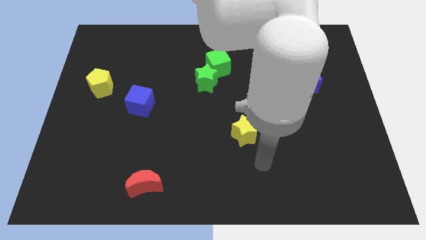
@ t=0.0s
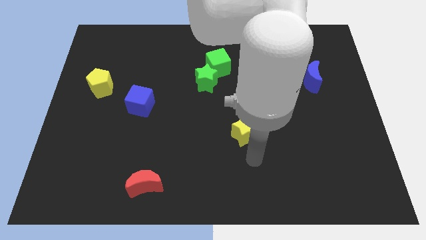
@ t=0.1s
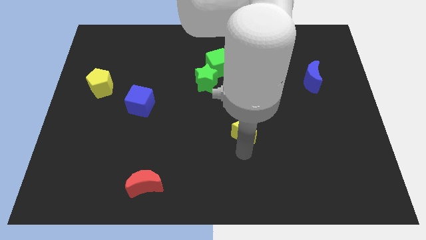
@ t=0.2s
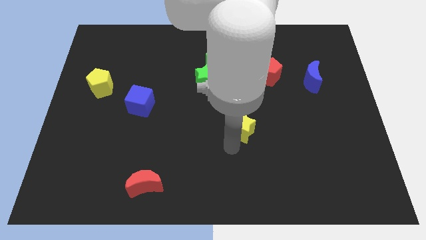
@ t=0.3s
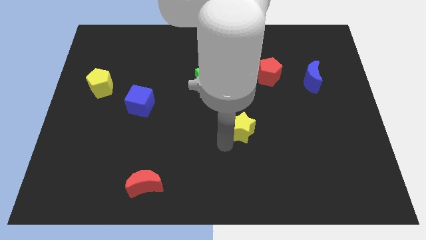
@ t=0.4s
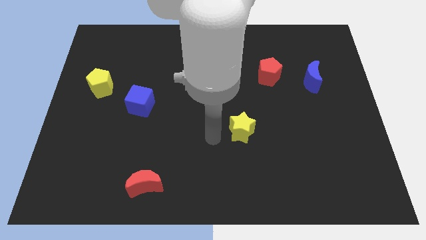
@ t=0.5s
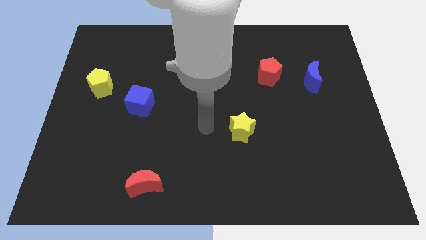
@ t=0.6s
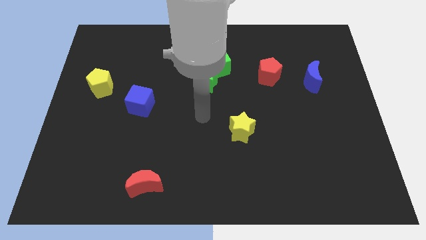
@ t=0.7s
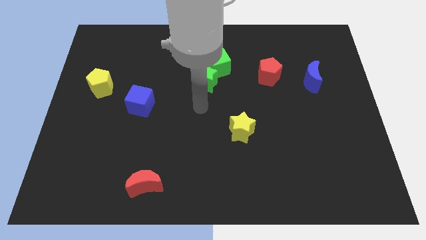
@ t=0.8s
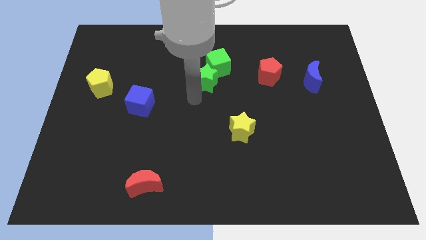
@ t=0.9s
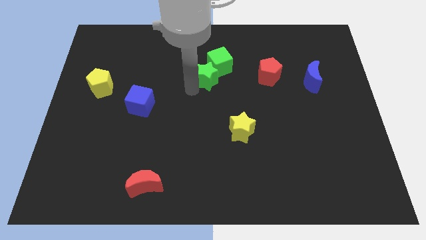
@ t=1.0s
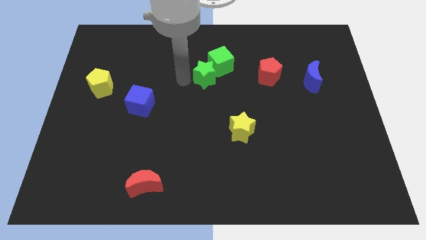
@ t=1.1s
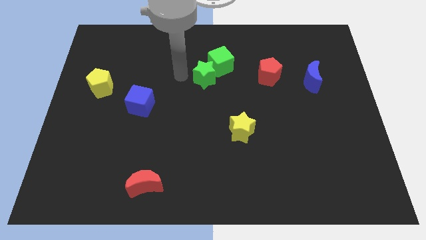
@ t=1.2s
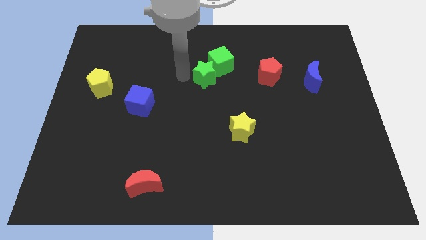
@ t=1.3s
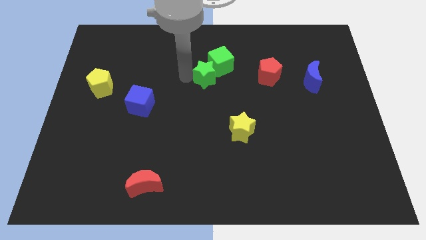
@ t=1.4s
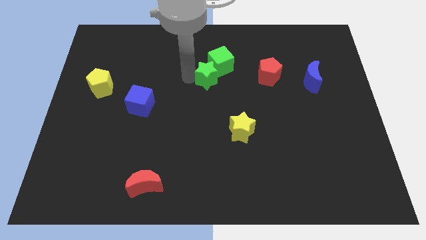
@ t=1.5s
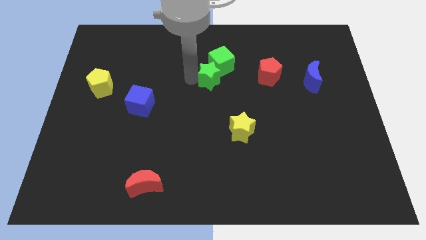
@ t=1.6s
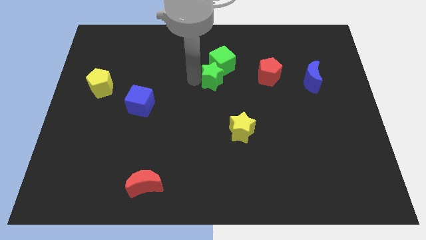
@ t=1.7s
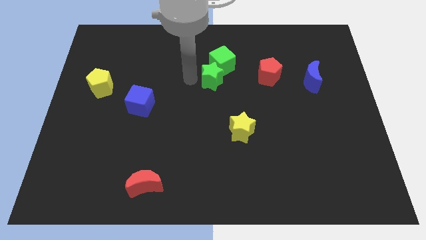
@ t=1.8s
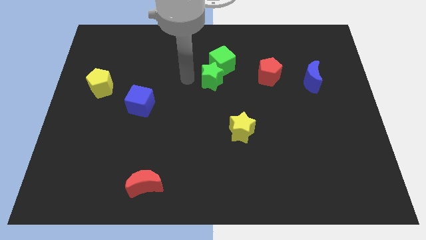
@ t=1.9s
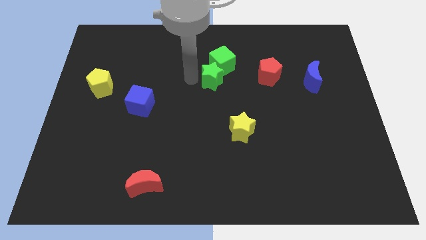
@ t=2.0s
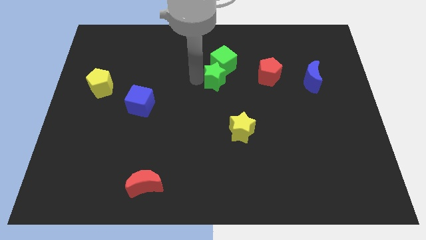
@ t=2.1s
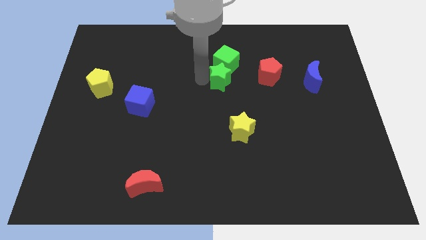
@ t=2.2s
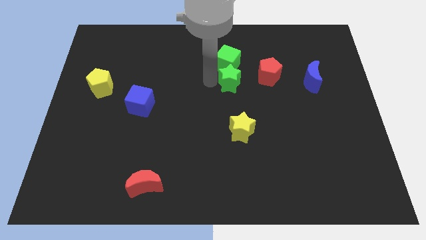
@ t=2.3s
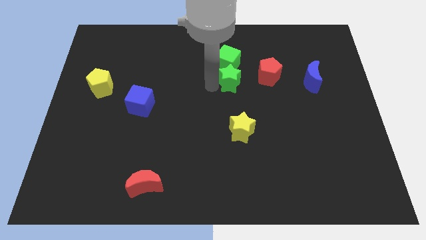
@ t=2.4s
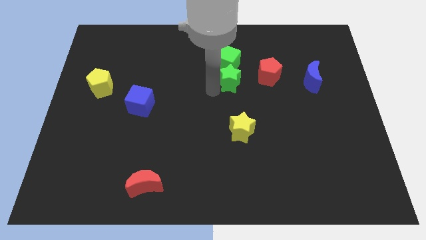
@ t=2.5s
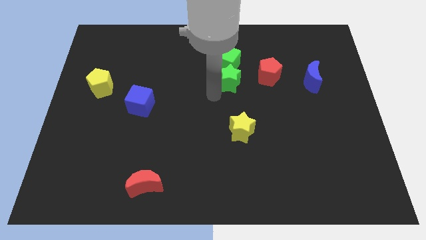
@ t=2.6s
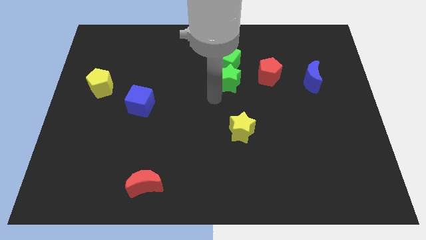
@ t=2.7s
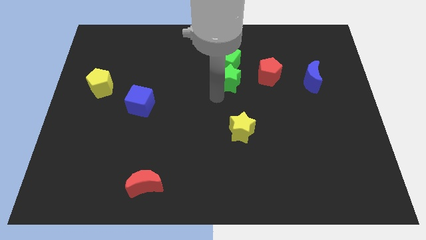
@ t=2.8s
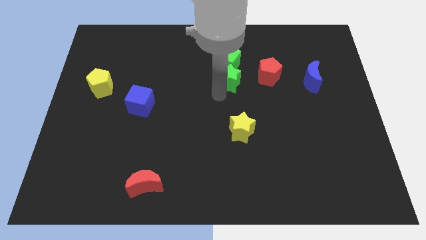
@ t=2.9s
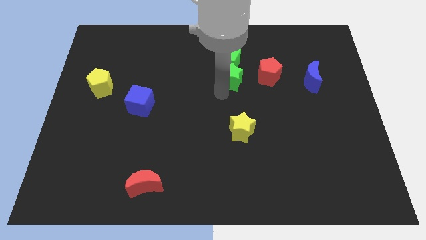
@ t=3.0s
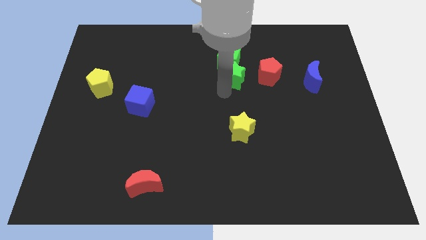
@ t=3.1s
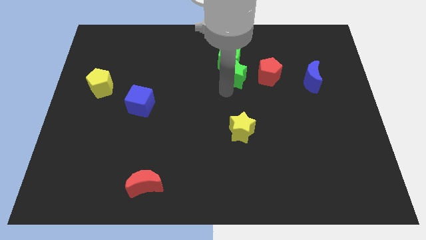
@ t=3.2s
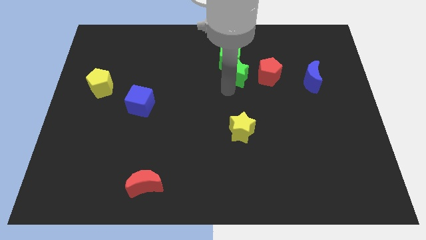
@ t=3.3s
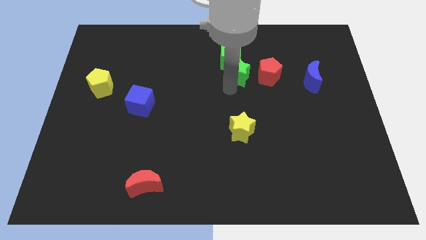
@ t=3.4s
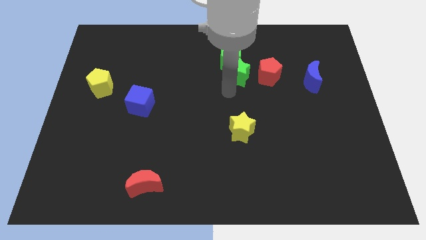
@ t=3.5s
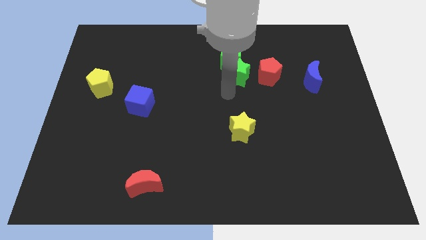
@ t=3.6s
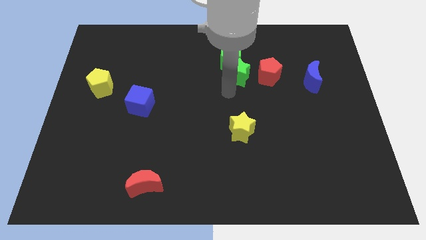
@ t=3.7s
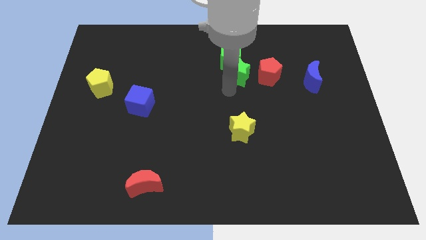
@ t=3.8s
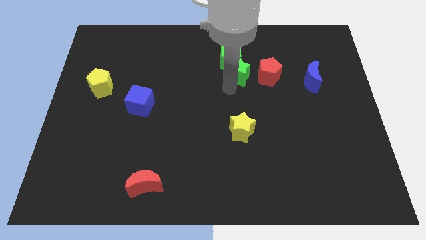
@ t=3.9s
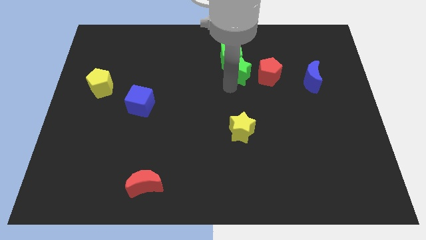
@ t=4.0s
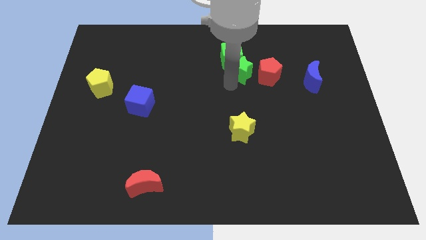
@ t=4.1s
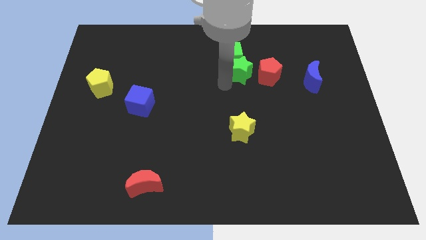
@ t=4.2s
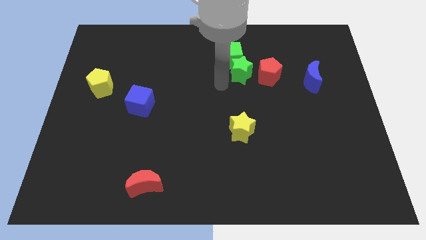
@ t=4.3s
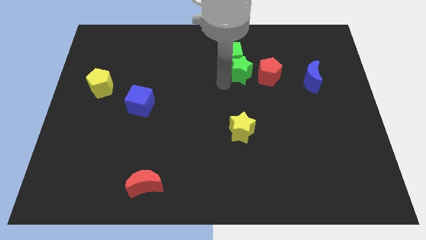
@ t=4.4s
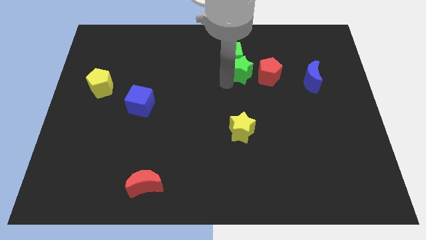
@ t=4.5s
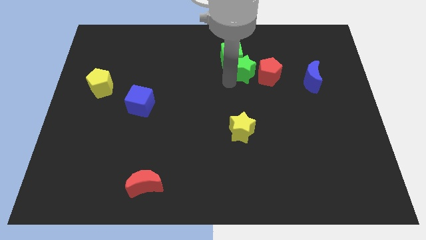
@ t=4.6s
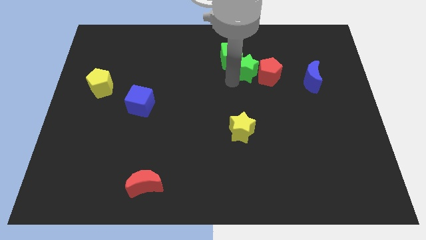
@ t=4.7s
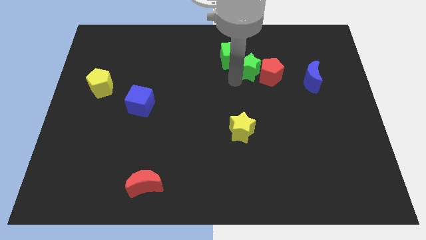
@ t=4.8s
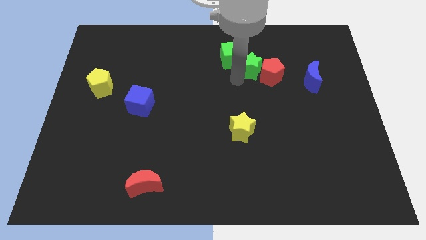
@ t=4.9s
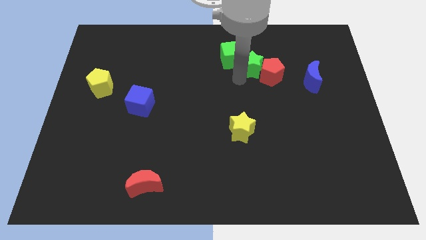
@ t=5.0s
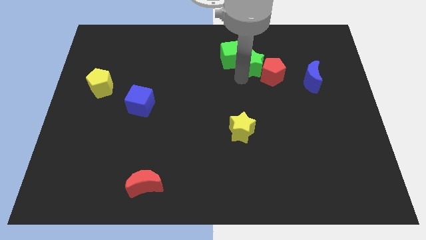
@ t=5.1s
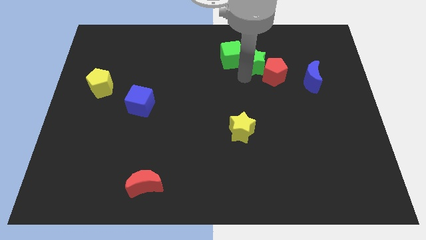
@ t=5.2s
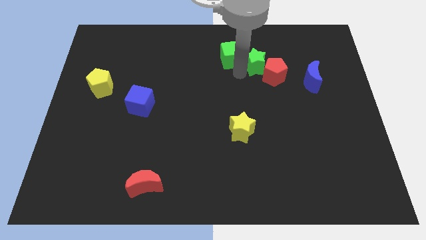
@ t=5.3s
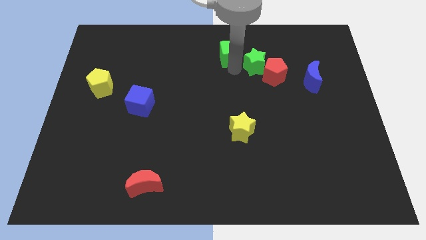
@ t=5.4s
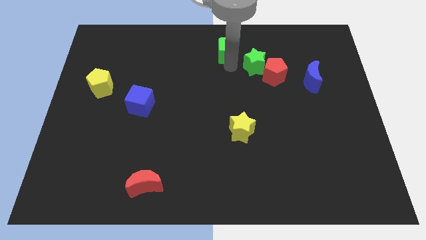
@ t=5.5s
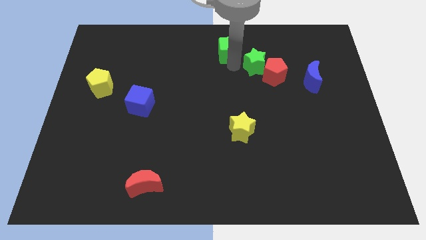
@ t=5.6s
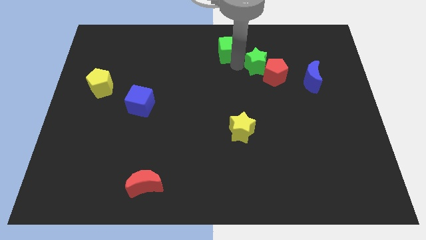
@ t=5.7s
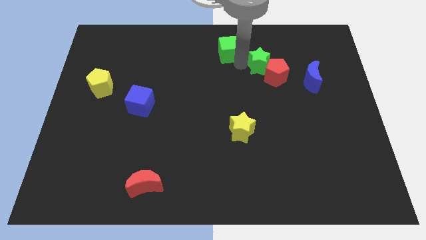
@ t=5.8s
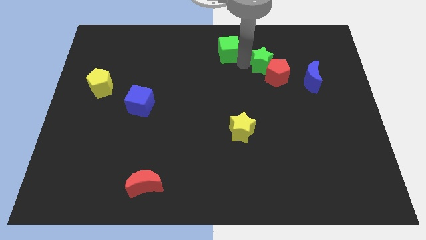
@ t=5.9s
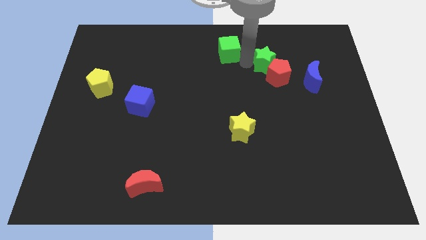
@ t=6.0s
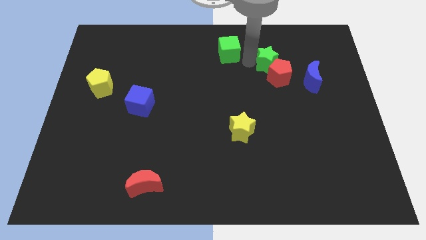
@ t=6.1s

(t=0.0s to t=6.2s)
move the green star to the top left side of the blue moon
